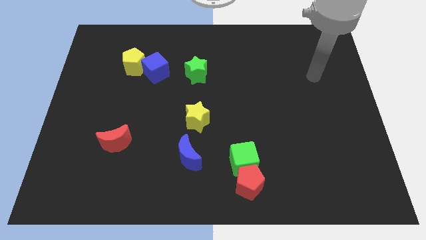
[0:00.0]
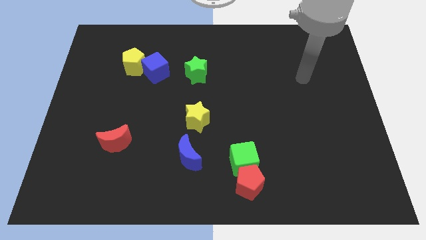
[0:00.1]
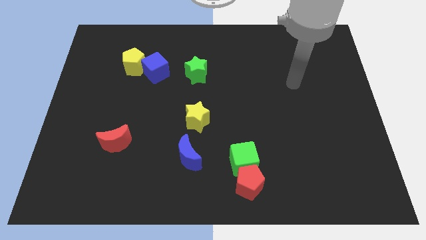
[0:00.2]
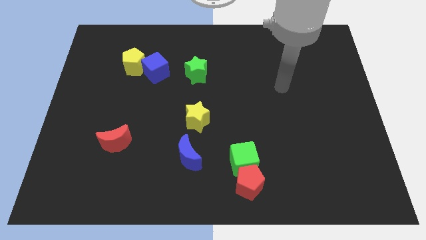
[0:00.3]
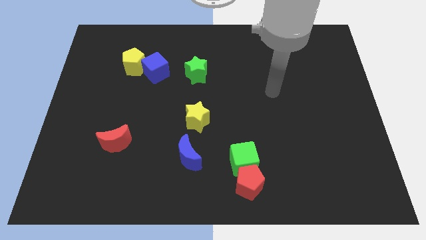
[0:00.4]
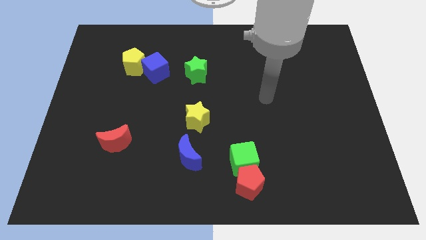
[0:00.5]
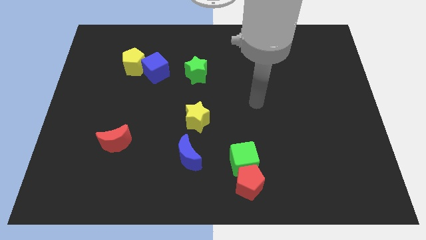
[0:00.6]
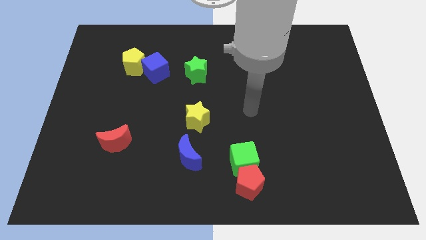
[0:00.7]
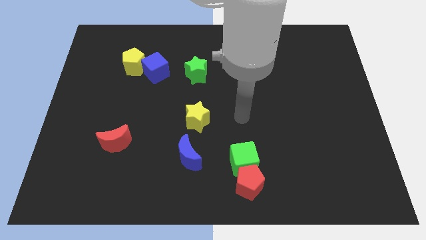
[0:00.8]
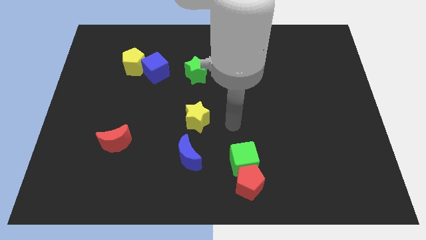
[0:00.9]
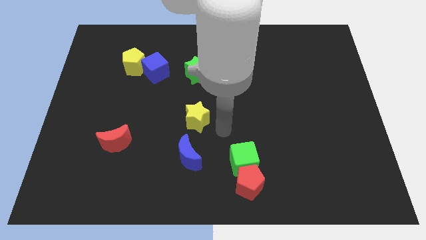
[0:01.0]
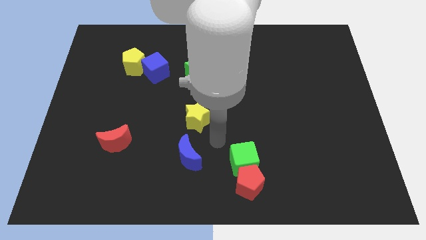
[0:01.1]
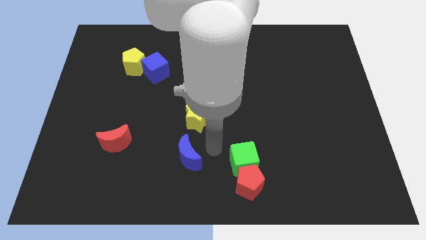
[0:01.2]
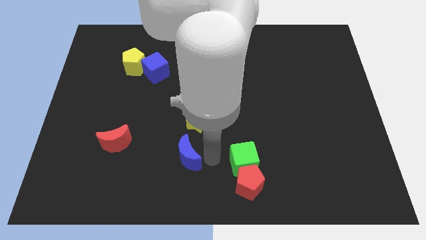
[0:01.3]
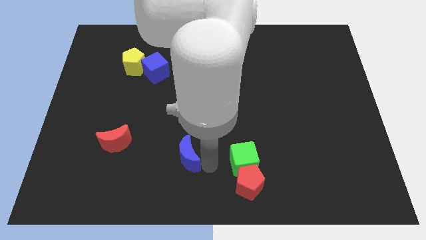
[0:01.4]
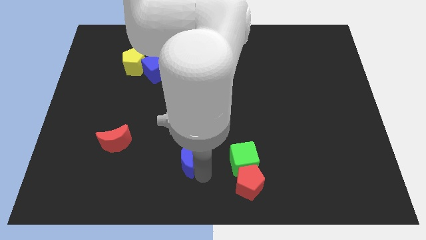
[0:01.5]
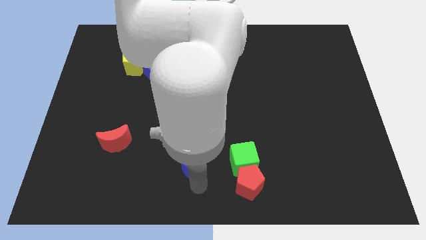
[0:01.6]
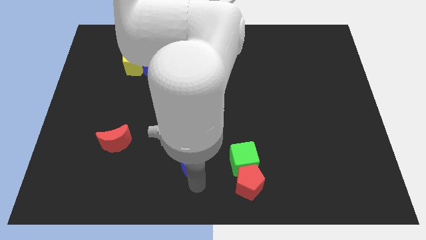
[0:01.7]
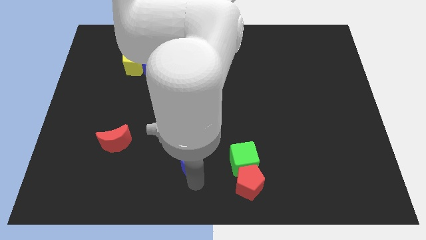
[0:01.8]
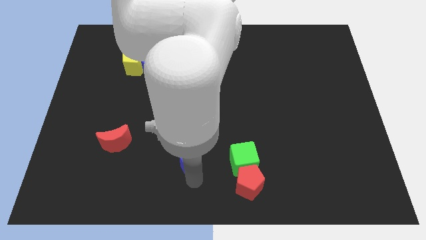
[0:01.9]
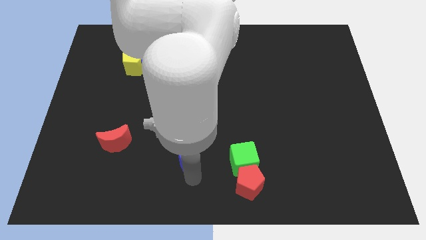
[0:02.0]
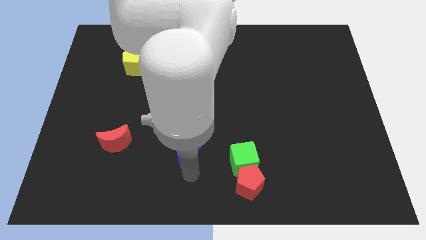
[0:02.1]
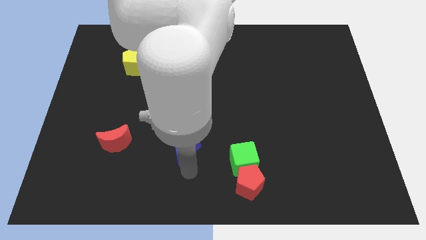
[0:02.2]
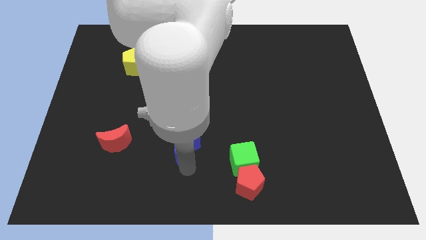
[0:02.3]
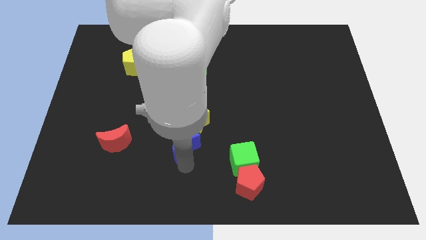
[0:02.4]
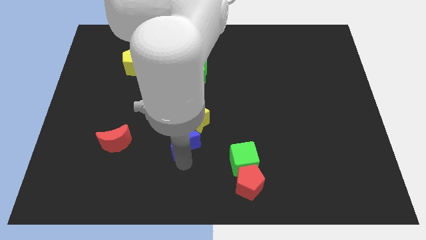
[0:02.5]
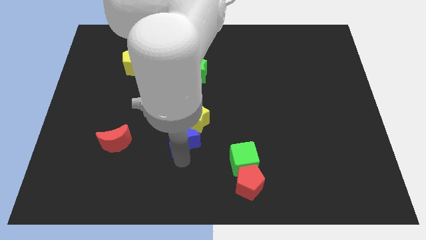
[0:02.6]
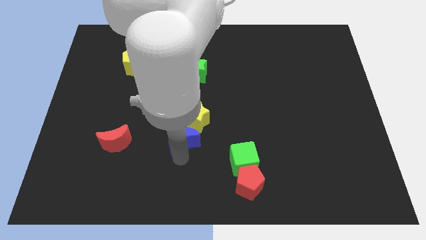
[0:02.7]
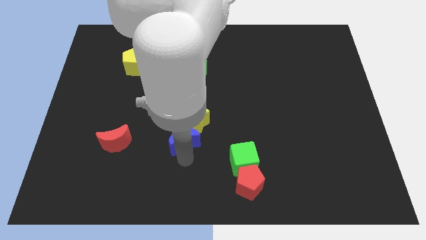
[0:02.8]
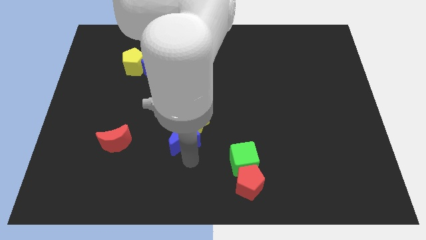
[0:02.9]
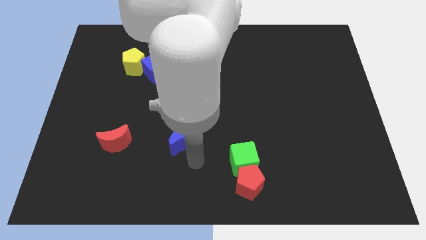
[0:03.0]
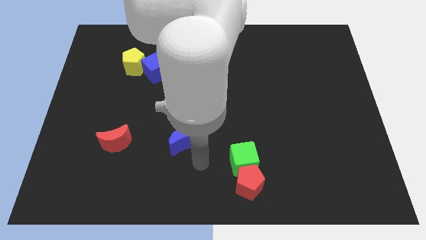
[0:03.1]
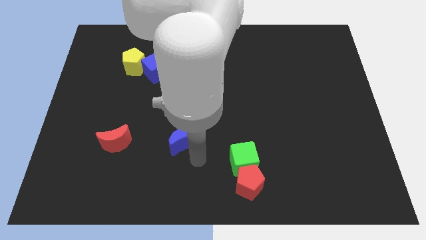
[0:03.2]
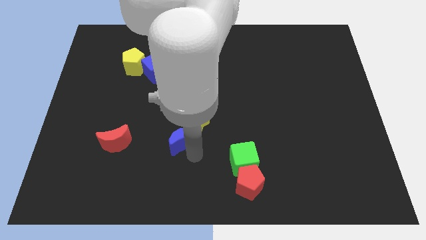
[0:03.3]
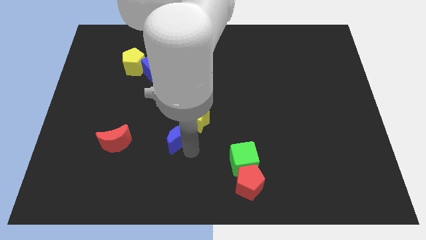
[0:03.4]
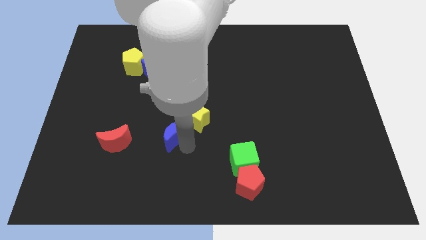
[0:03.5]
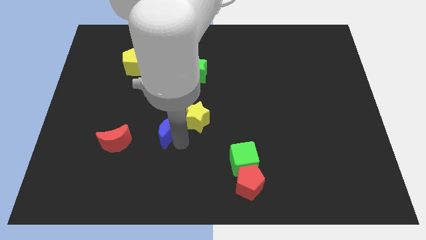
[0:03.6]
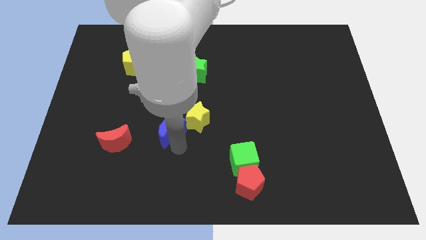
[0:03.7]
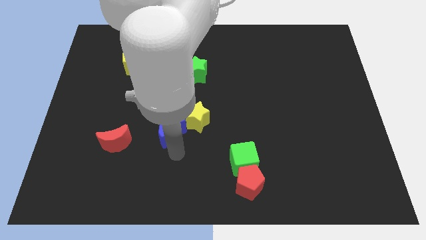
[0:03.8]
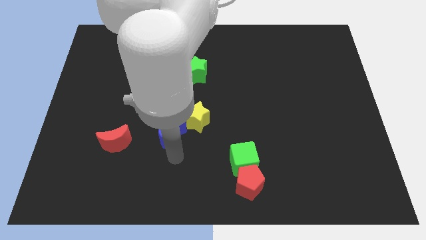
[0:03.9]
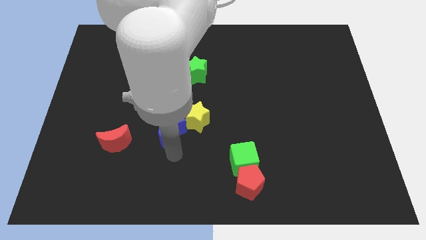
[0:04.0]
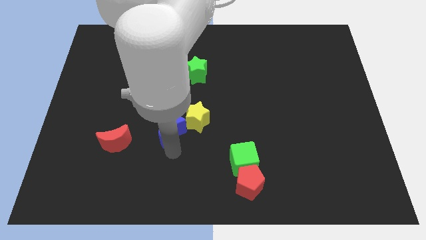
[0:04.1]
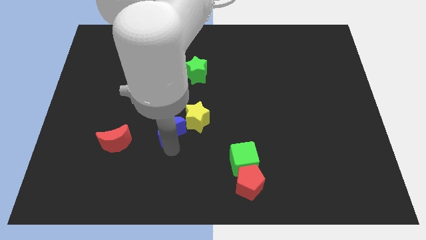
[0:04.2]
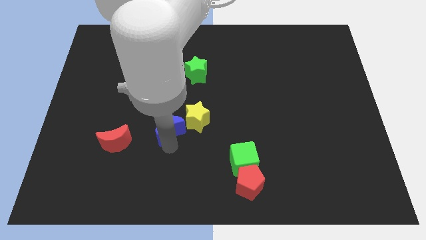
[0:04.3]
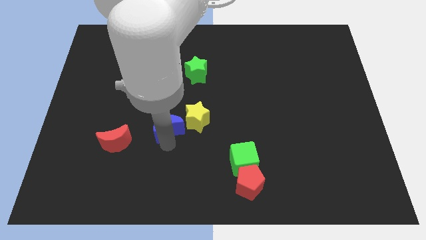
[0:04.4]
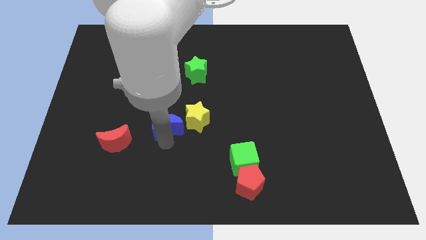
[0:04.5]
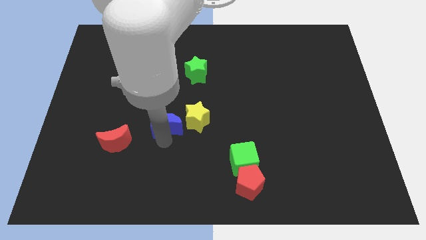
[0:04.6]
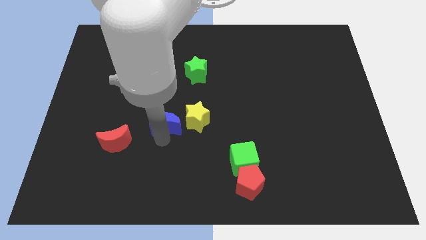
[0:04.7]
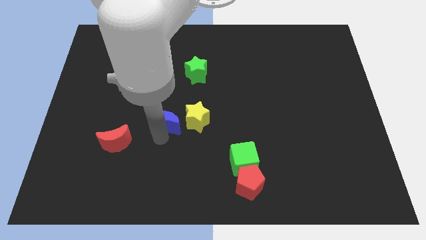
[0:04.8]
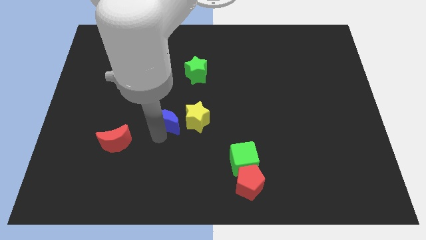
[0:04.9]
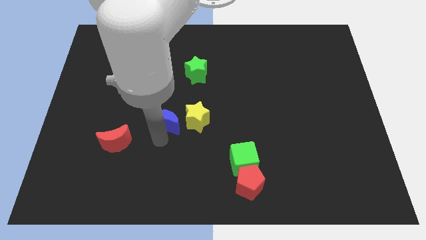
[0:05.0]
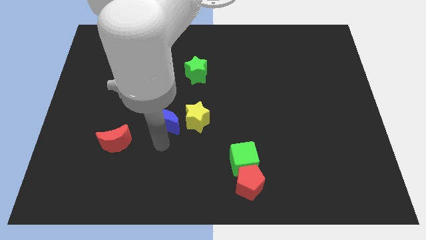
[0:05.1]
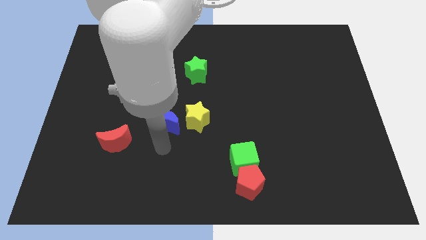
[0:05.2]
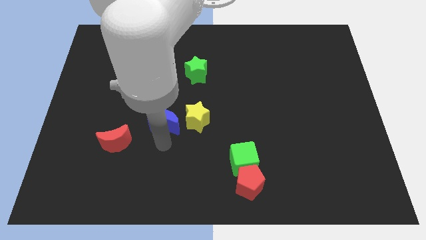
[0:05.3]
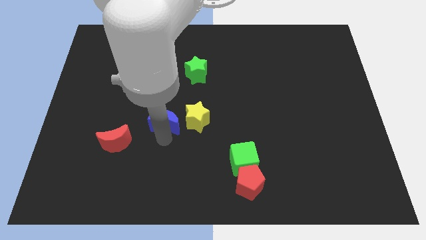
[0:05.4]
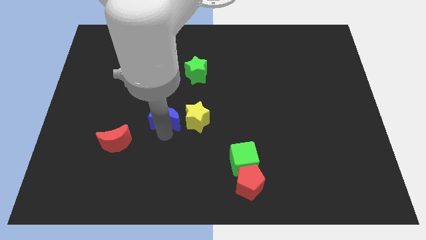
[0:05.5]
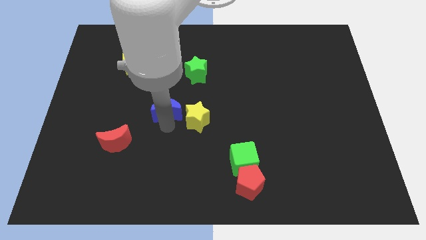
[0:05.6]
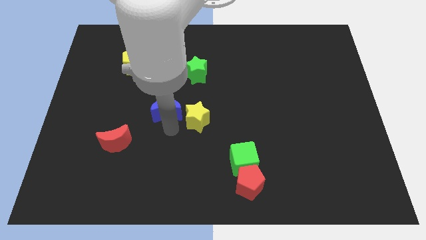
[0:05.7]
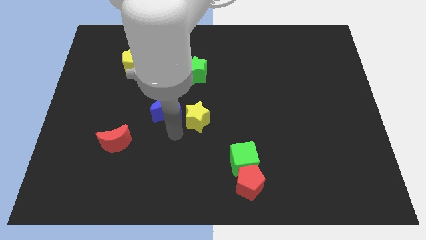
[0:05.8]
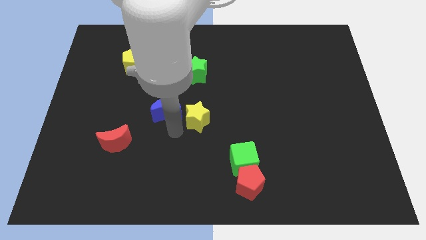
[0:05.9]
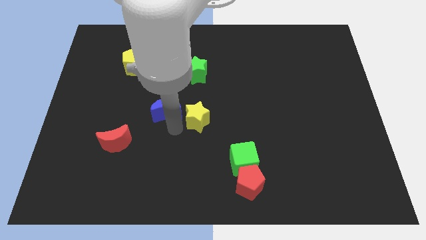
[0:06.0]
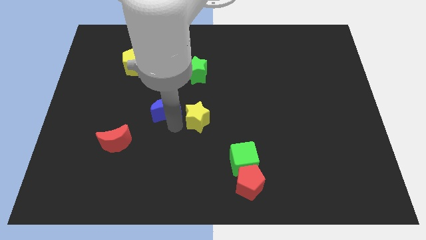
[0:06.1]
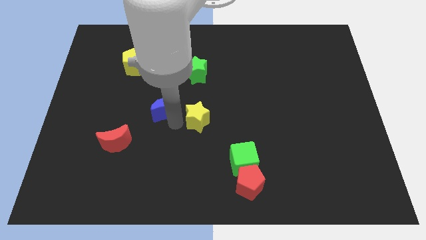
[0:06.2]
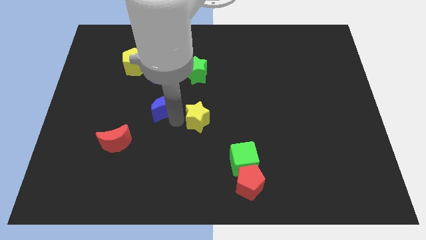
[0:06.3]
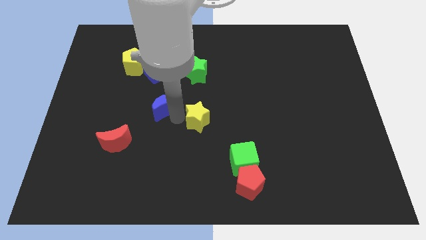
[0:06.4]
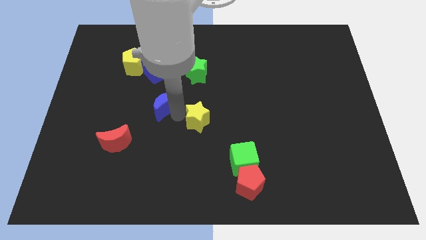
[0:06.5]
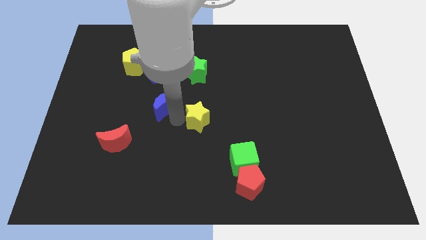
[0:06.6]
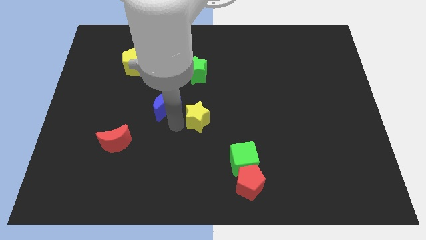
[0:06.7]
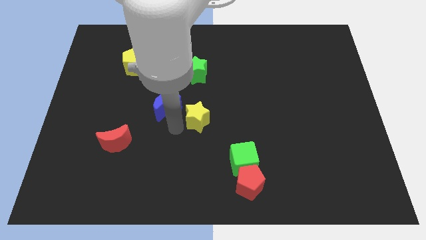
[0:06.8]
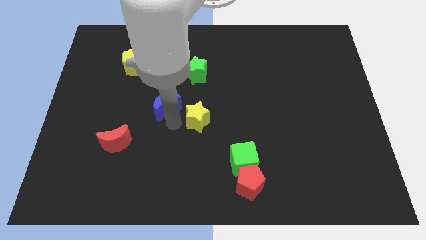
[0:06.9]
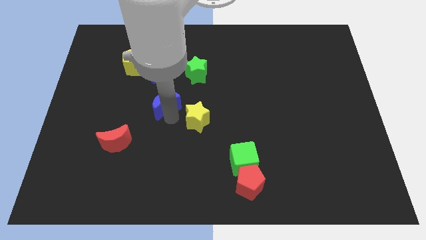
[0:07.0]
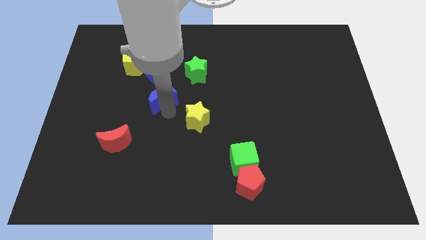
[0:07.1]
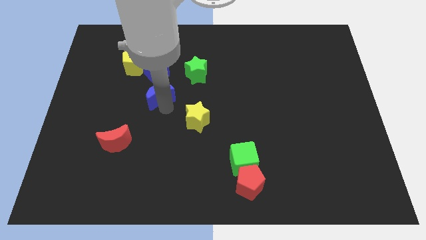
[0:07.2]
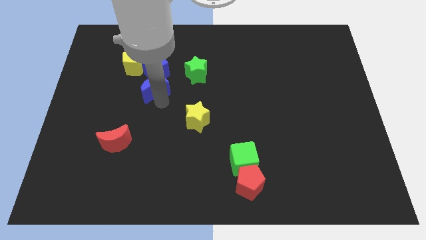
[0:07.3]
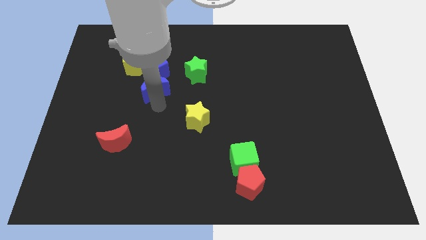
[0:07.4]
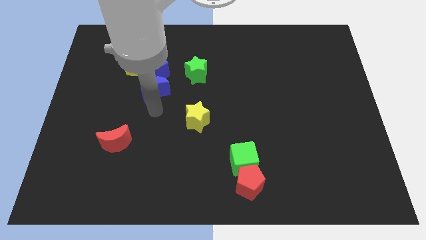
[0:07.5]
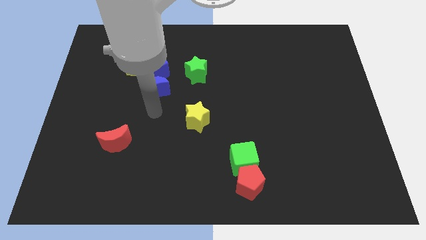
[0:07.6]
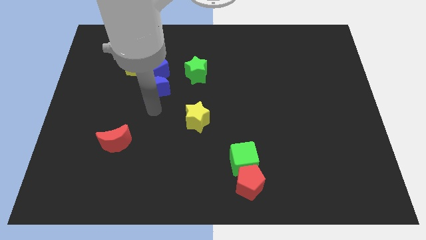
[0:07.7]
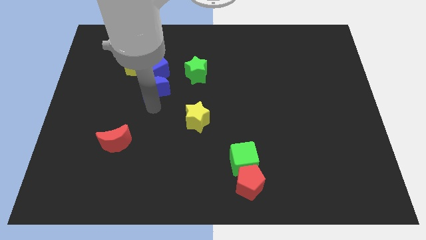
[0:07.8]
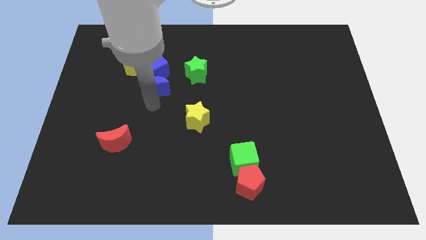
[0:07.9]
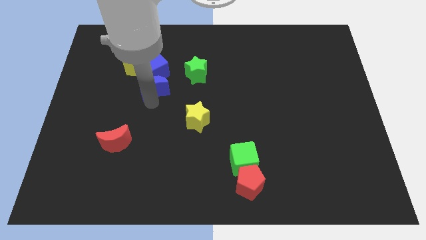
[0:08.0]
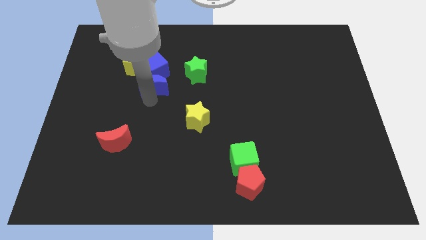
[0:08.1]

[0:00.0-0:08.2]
push the blue moon next to the blue cube
